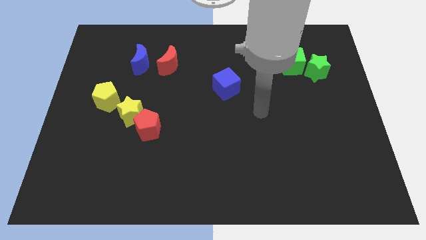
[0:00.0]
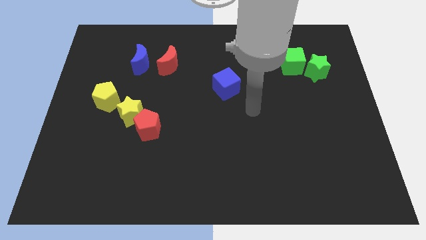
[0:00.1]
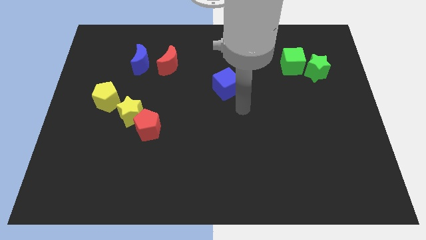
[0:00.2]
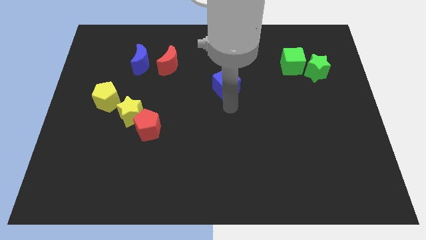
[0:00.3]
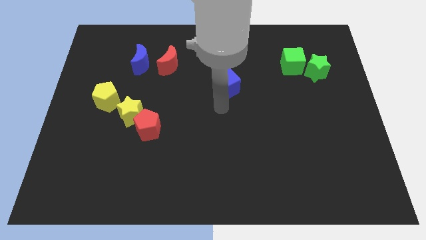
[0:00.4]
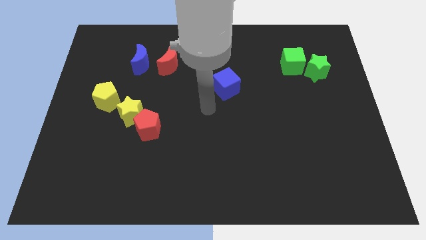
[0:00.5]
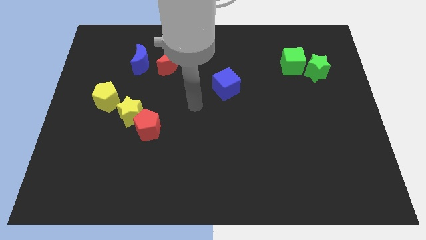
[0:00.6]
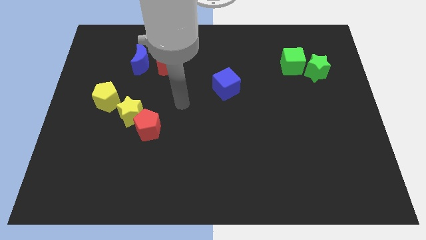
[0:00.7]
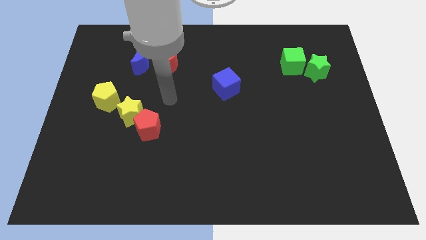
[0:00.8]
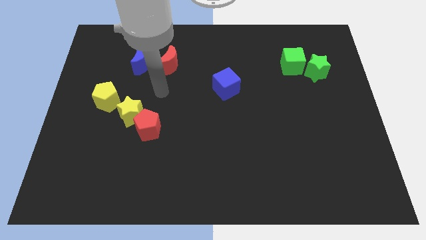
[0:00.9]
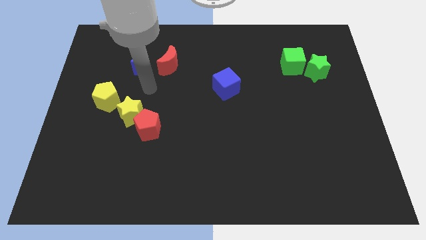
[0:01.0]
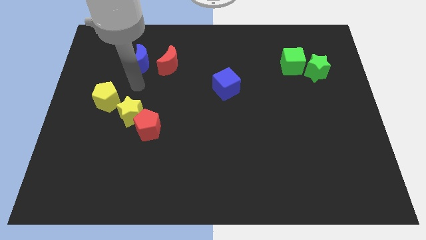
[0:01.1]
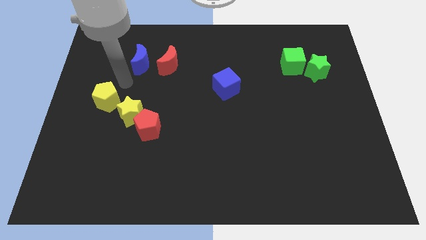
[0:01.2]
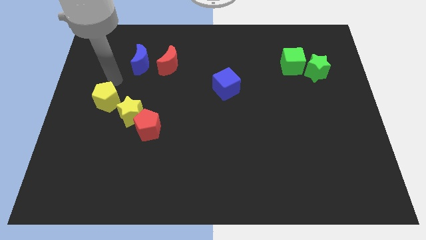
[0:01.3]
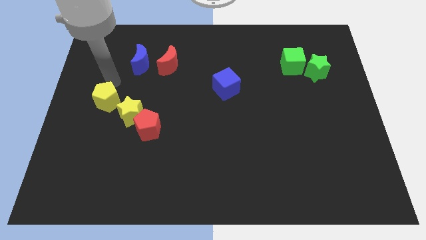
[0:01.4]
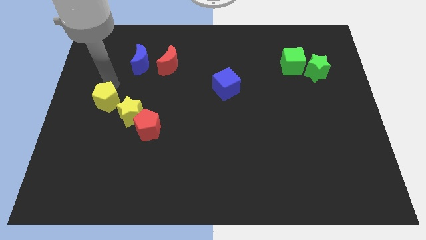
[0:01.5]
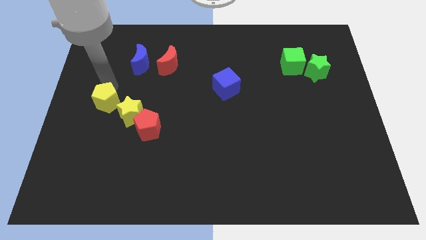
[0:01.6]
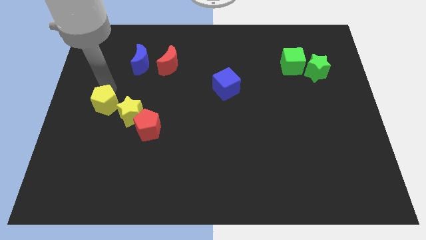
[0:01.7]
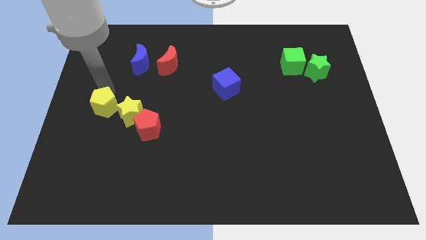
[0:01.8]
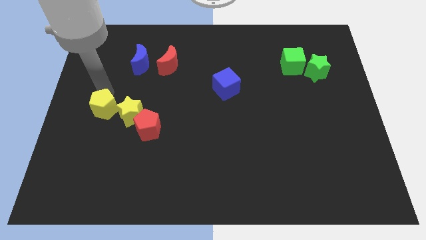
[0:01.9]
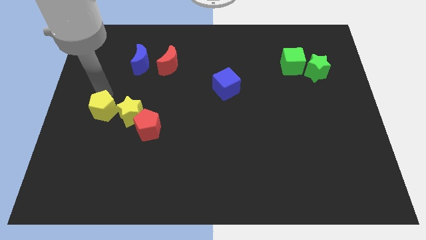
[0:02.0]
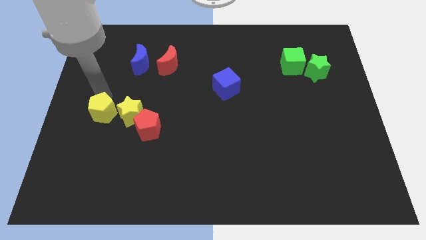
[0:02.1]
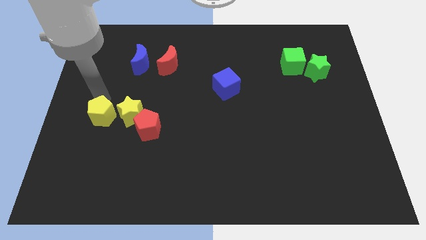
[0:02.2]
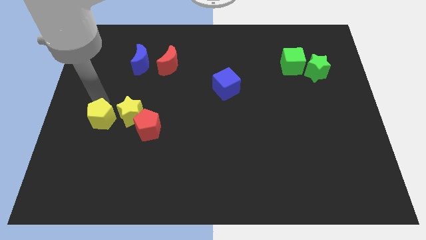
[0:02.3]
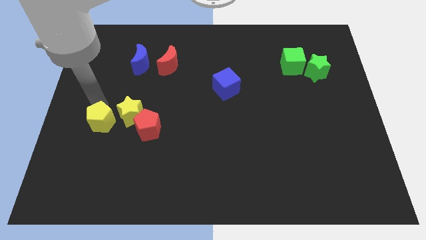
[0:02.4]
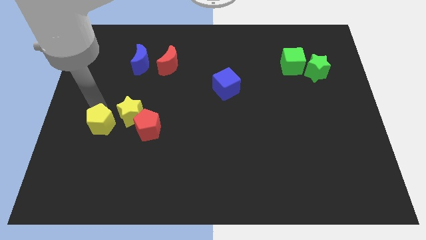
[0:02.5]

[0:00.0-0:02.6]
push the yellow pentagon downwards a bit

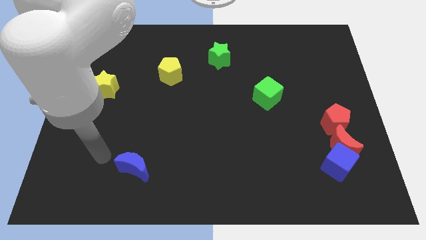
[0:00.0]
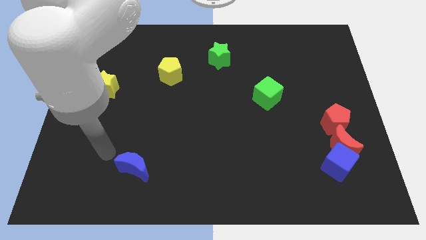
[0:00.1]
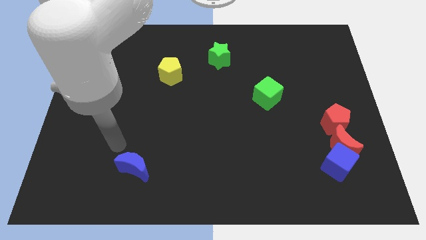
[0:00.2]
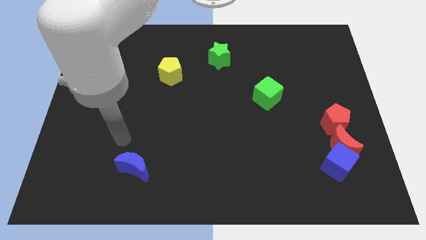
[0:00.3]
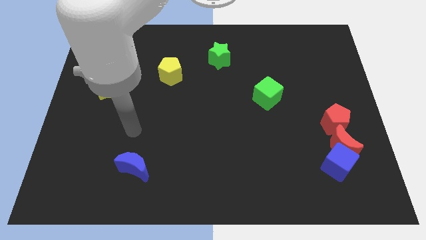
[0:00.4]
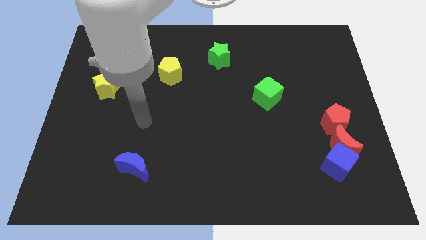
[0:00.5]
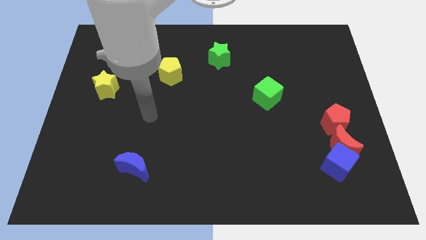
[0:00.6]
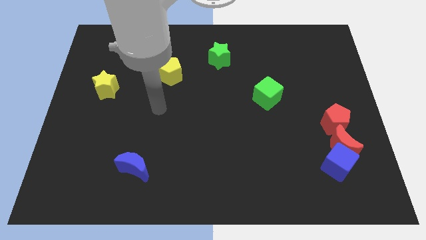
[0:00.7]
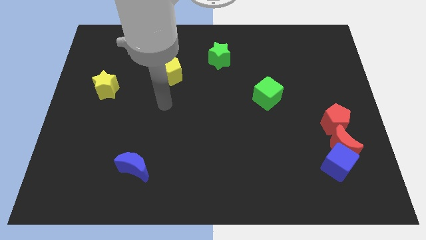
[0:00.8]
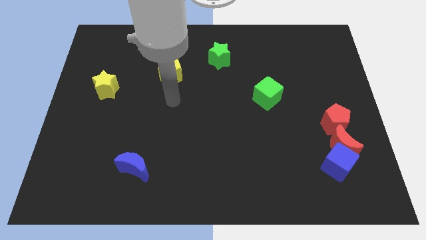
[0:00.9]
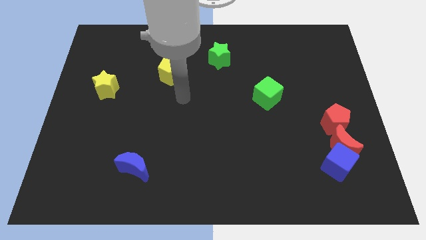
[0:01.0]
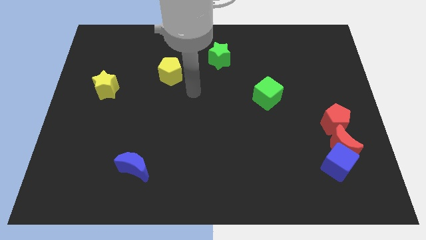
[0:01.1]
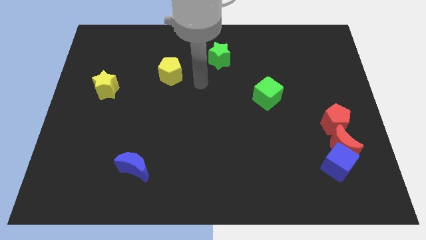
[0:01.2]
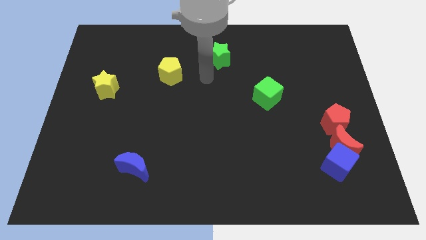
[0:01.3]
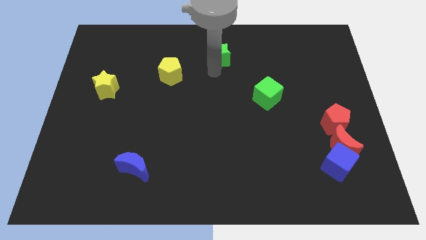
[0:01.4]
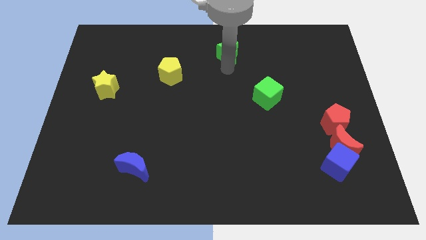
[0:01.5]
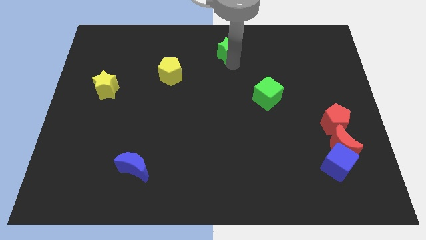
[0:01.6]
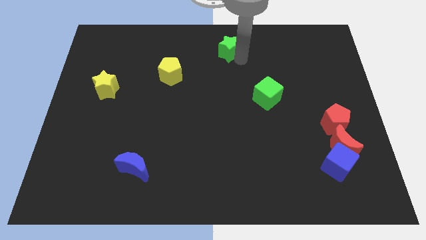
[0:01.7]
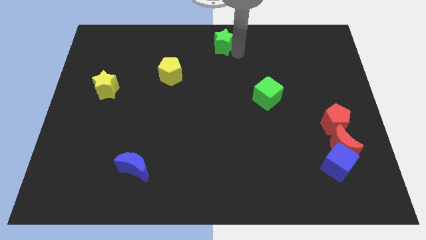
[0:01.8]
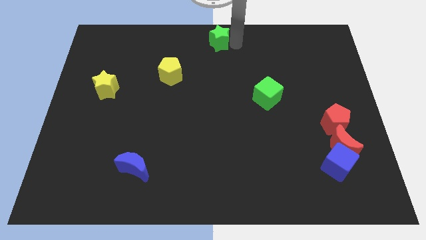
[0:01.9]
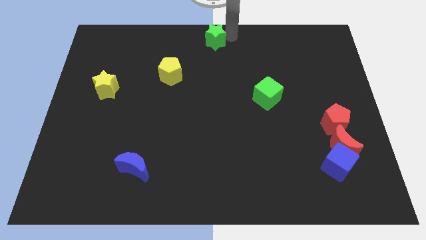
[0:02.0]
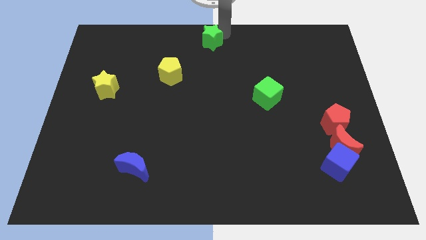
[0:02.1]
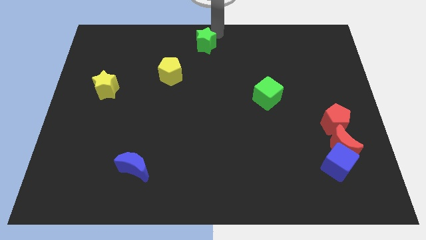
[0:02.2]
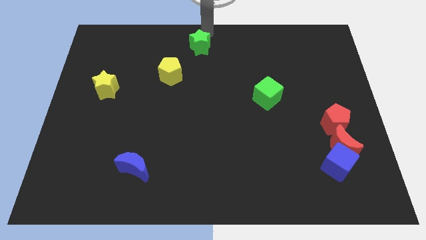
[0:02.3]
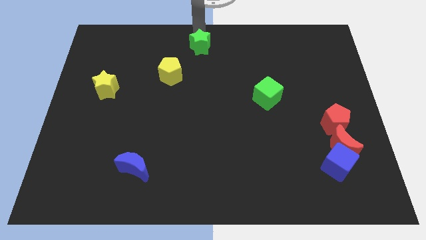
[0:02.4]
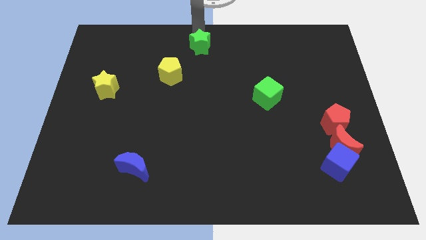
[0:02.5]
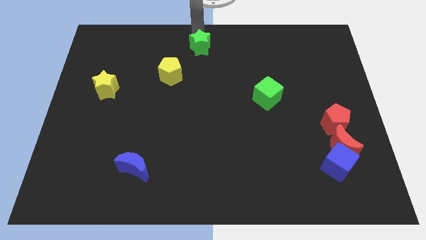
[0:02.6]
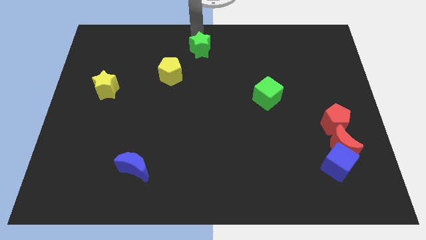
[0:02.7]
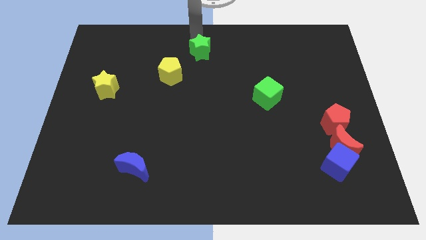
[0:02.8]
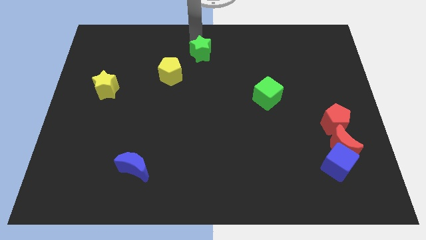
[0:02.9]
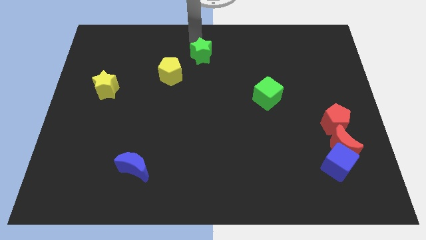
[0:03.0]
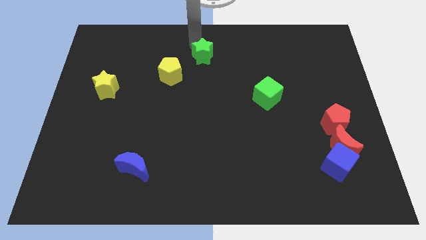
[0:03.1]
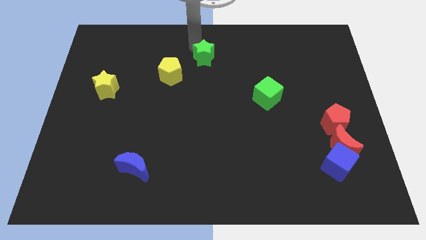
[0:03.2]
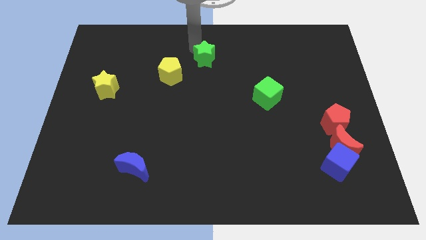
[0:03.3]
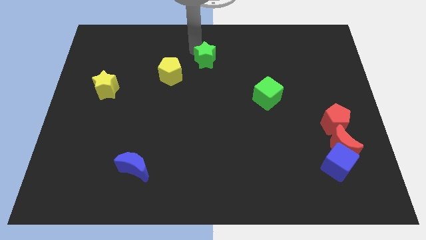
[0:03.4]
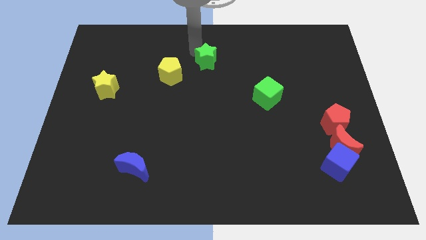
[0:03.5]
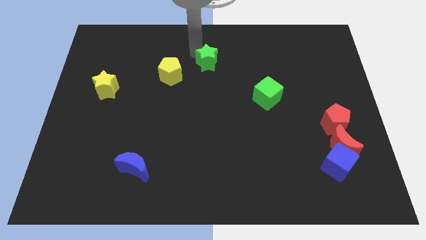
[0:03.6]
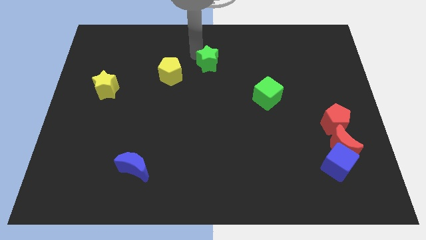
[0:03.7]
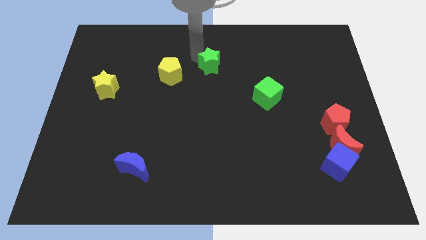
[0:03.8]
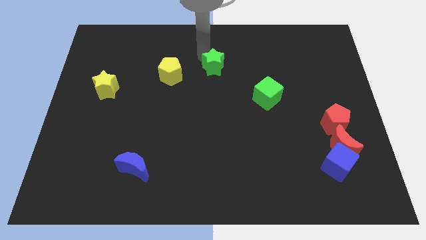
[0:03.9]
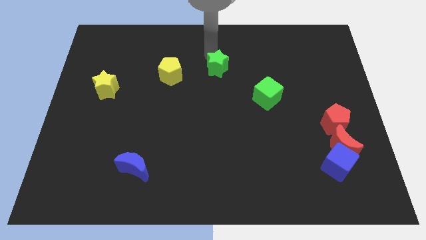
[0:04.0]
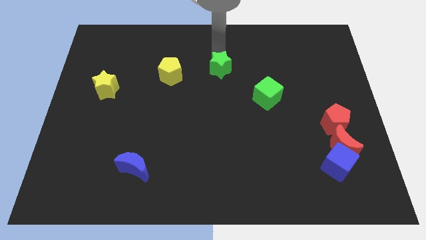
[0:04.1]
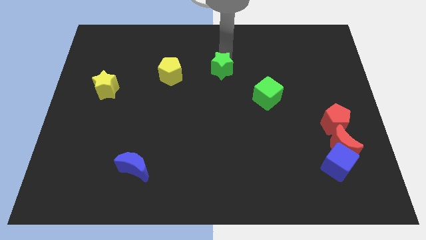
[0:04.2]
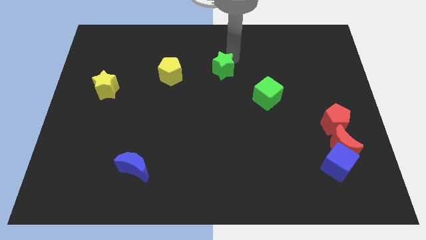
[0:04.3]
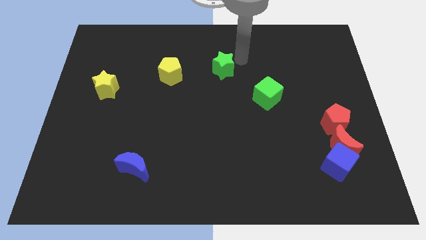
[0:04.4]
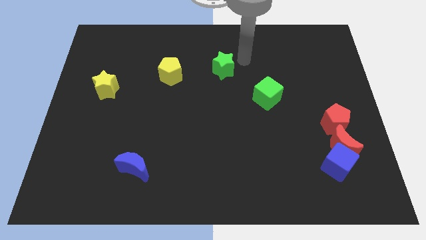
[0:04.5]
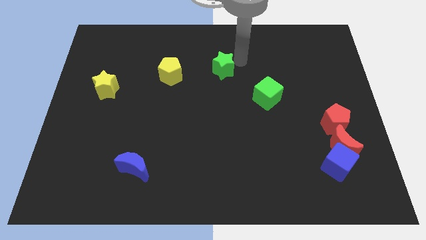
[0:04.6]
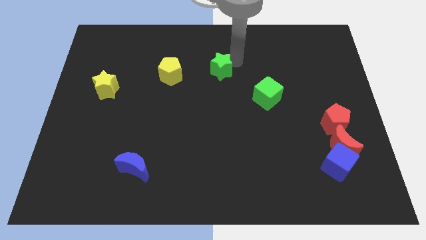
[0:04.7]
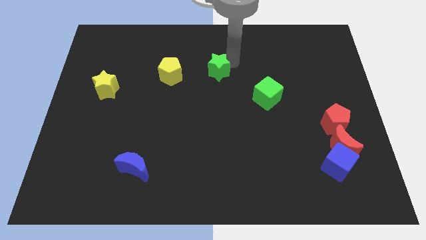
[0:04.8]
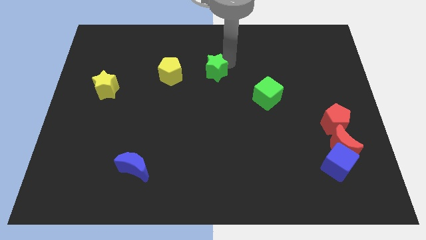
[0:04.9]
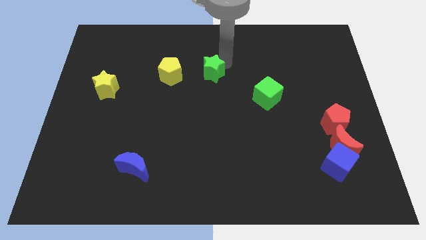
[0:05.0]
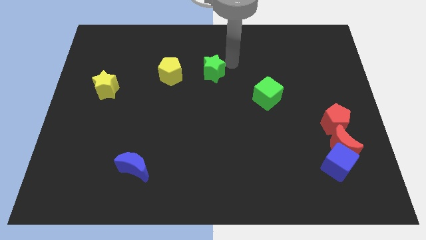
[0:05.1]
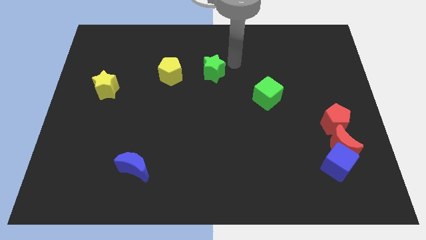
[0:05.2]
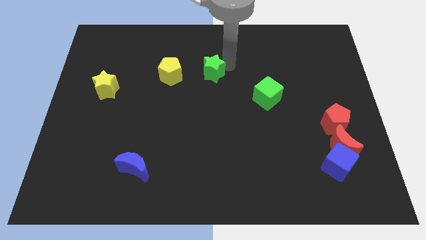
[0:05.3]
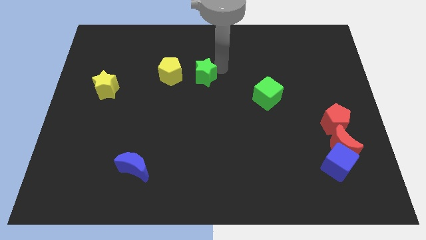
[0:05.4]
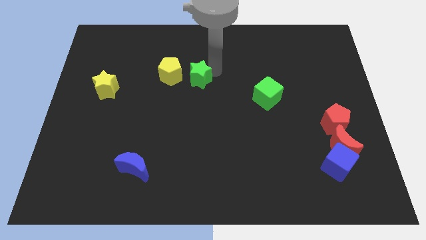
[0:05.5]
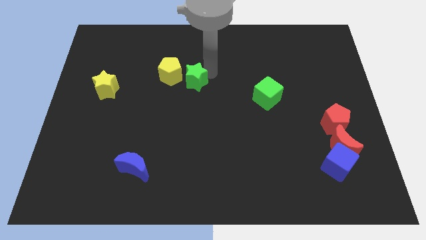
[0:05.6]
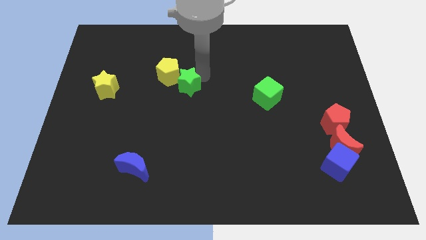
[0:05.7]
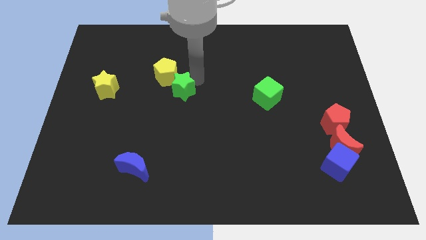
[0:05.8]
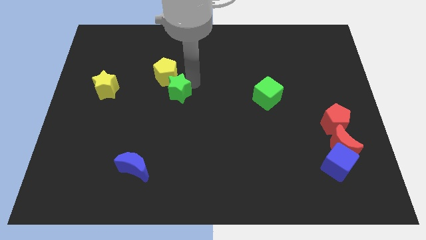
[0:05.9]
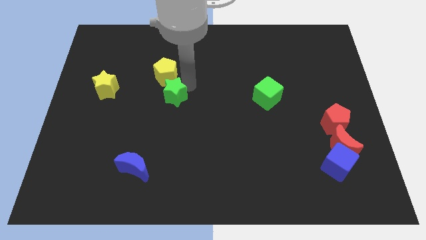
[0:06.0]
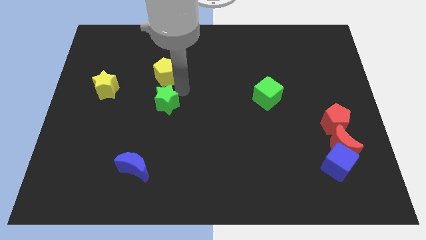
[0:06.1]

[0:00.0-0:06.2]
push the green star down and left diagonally
